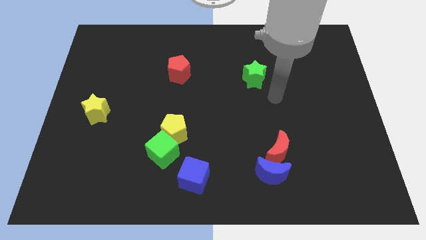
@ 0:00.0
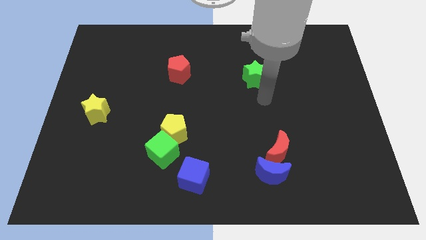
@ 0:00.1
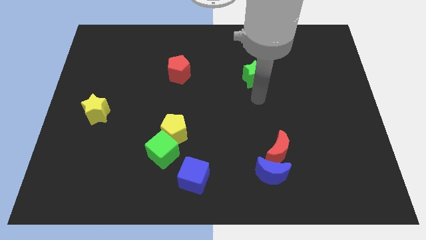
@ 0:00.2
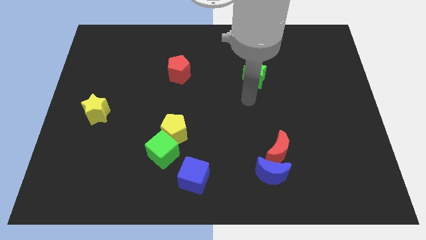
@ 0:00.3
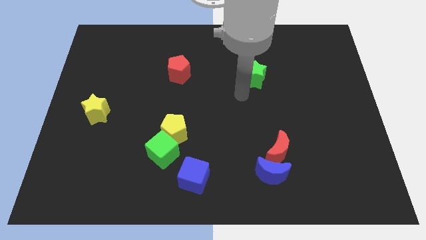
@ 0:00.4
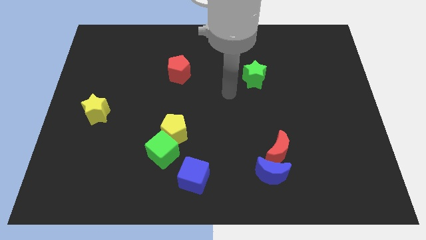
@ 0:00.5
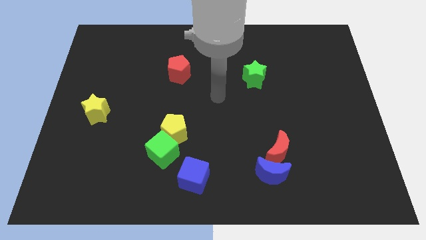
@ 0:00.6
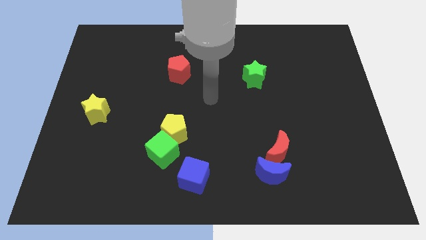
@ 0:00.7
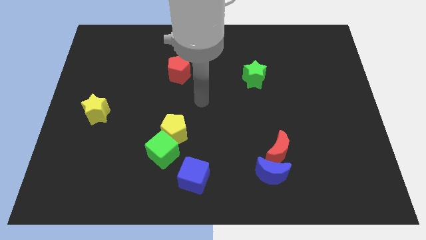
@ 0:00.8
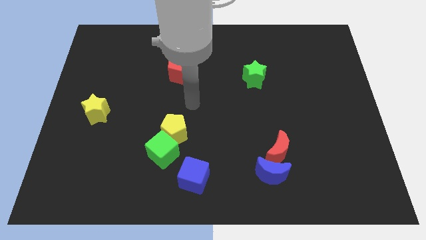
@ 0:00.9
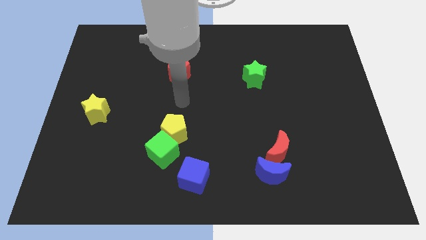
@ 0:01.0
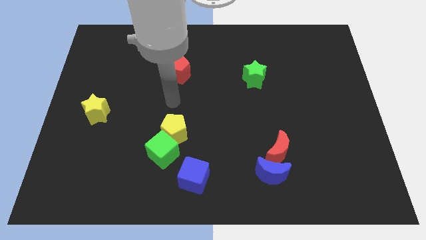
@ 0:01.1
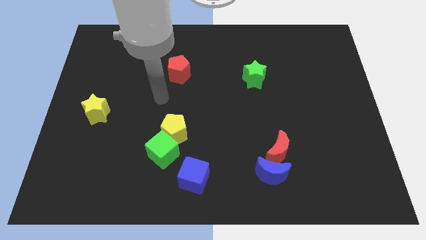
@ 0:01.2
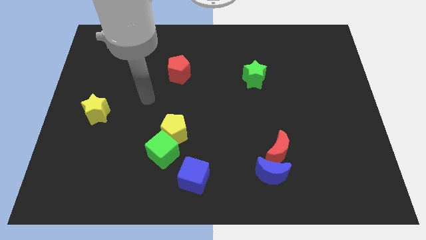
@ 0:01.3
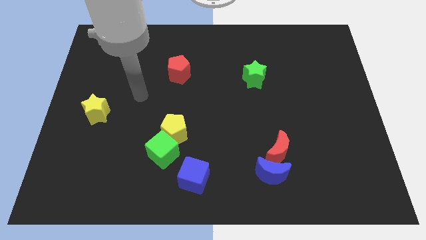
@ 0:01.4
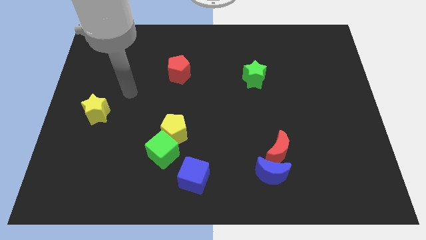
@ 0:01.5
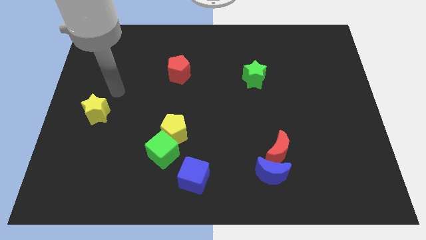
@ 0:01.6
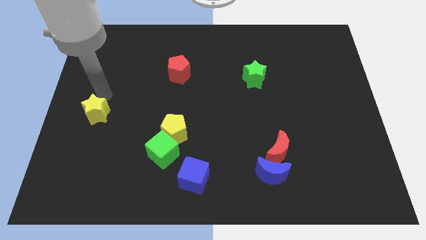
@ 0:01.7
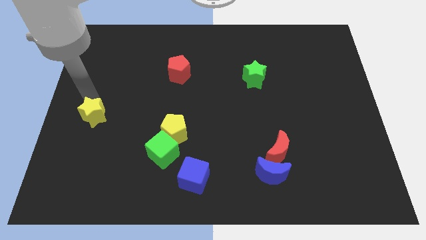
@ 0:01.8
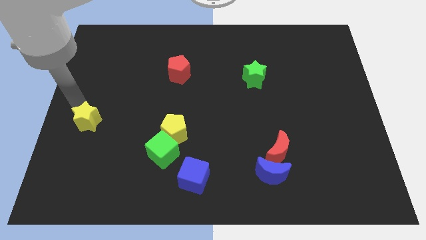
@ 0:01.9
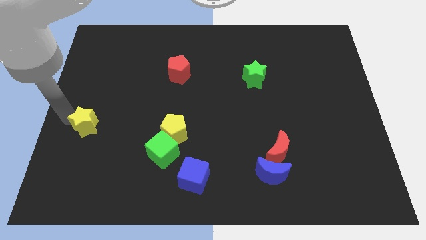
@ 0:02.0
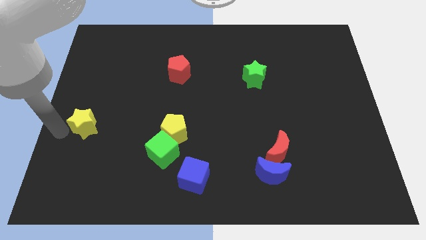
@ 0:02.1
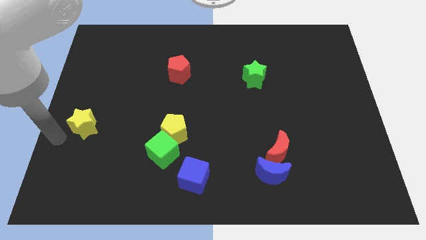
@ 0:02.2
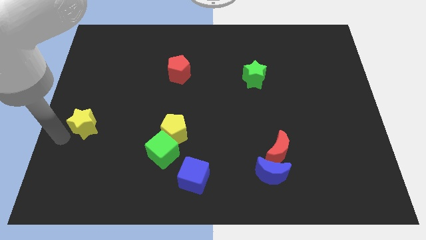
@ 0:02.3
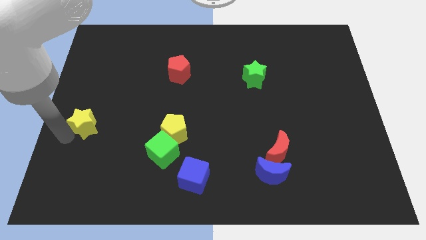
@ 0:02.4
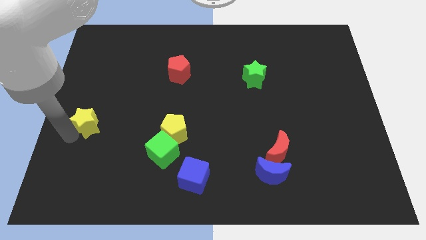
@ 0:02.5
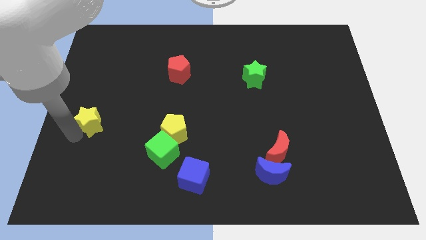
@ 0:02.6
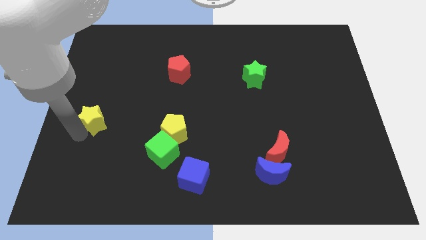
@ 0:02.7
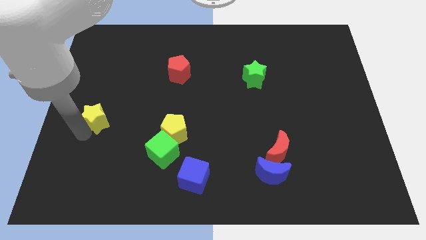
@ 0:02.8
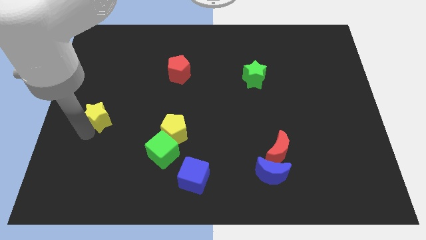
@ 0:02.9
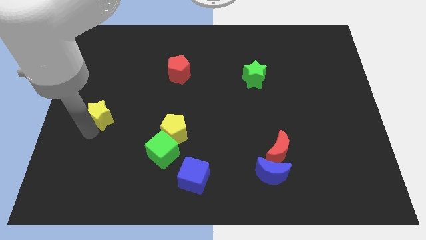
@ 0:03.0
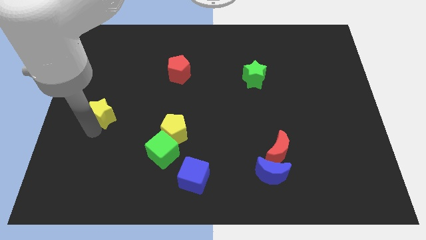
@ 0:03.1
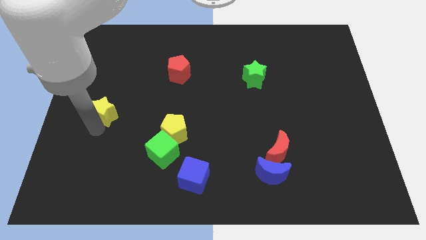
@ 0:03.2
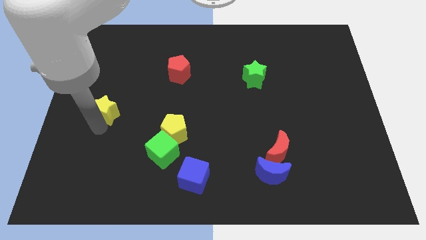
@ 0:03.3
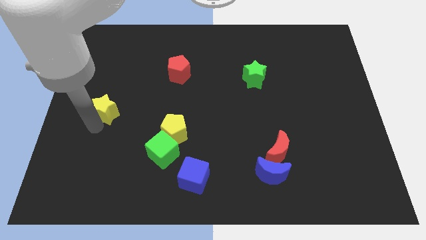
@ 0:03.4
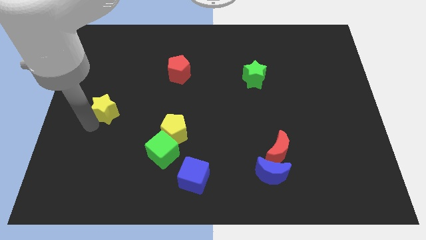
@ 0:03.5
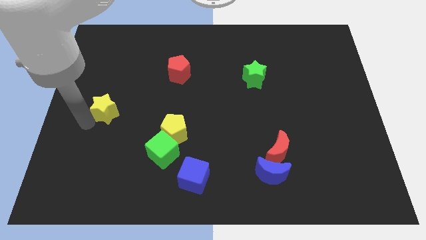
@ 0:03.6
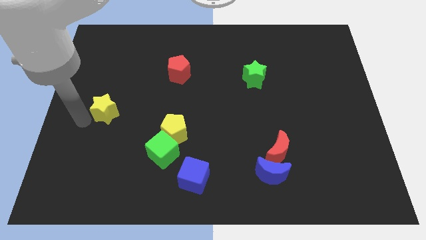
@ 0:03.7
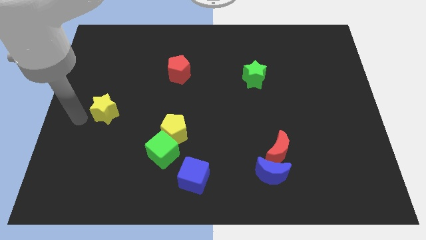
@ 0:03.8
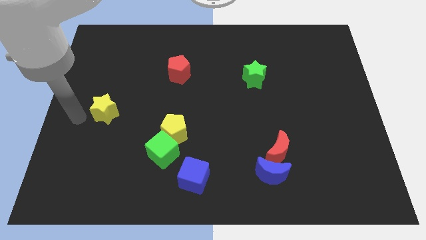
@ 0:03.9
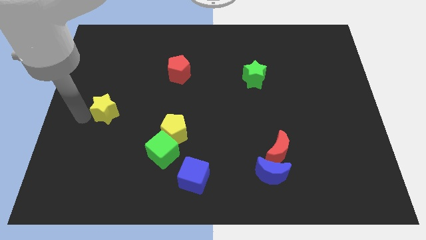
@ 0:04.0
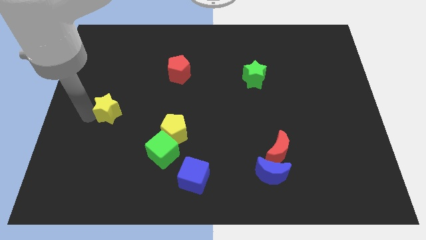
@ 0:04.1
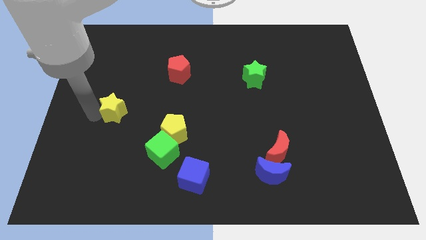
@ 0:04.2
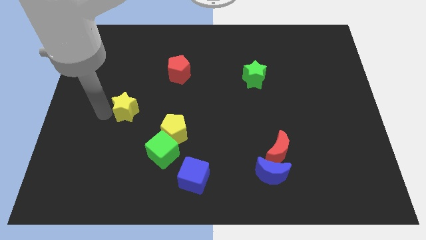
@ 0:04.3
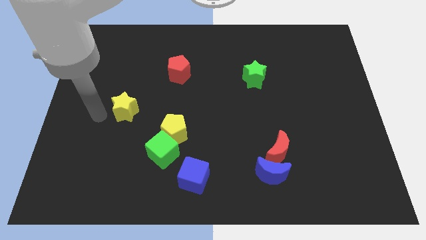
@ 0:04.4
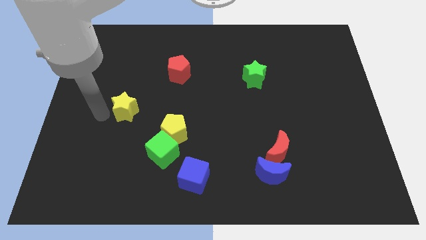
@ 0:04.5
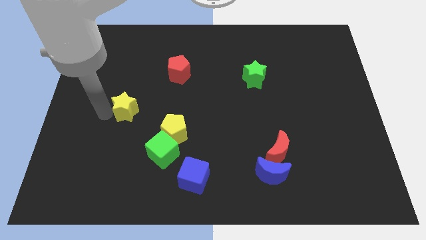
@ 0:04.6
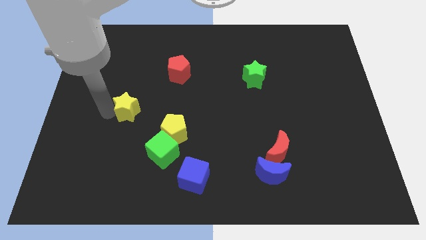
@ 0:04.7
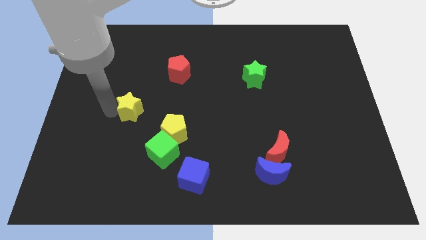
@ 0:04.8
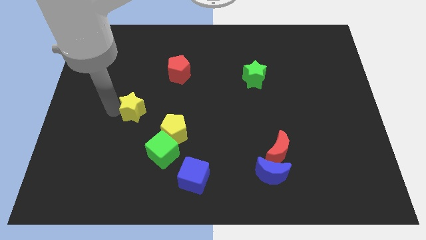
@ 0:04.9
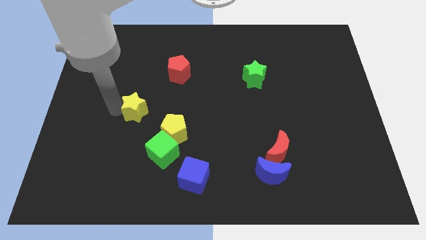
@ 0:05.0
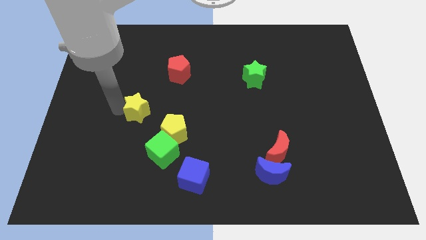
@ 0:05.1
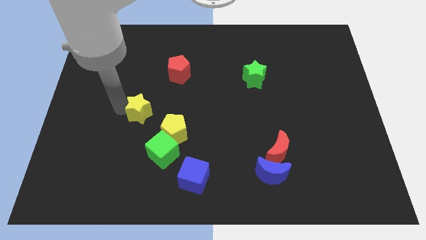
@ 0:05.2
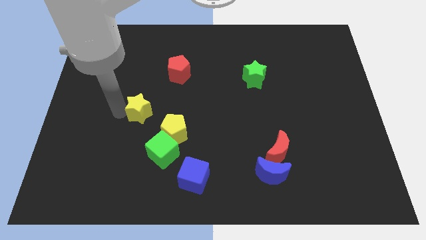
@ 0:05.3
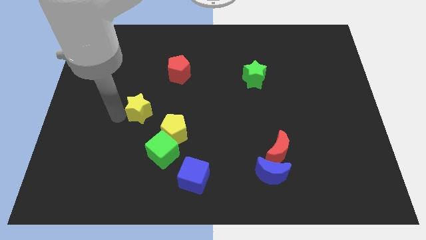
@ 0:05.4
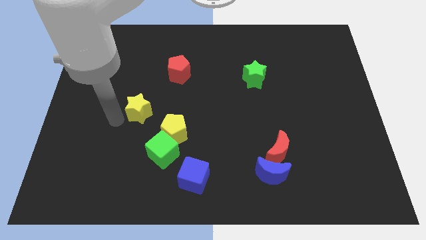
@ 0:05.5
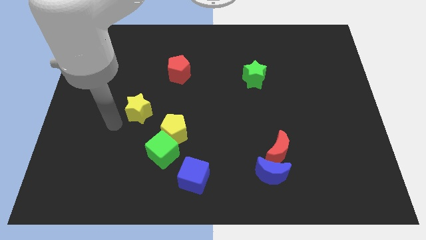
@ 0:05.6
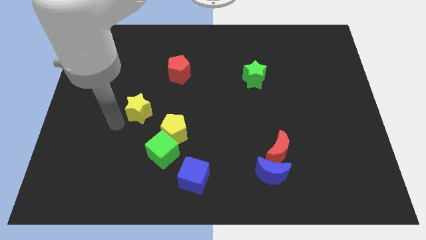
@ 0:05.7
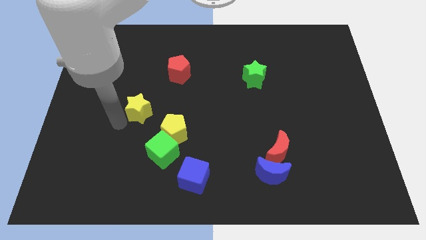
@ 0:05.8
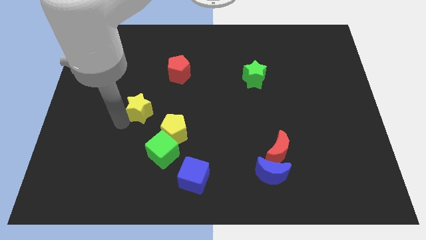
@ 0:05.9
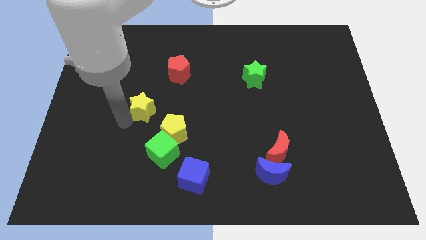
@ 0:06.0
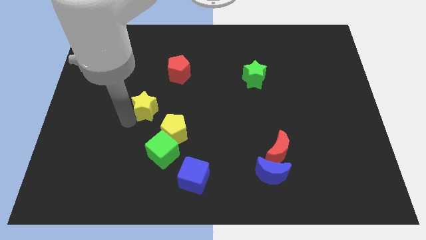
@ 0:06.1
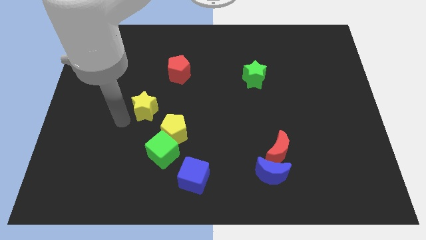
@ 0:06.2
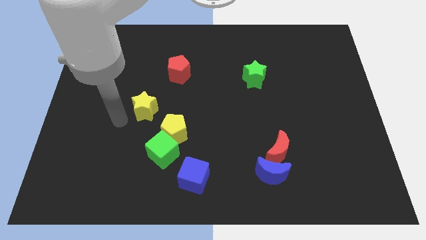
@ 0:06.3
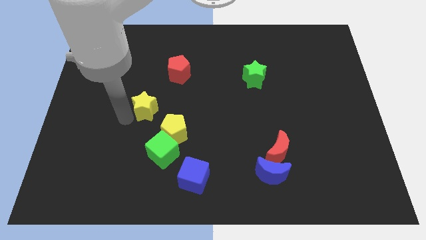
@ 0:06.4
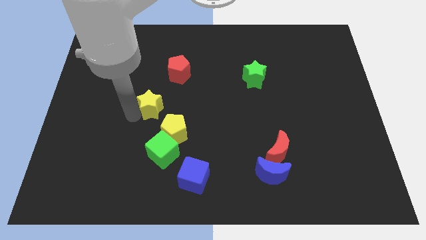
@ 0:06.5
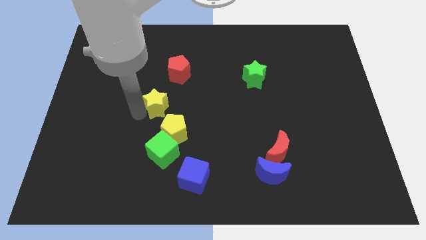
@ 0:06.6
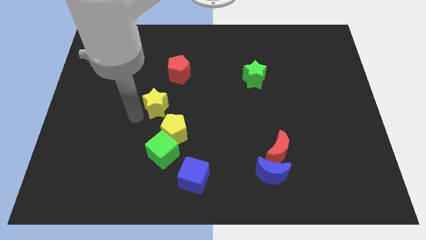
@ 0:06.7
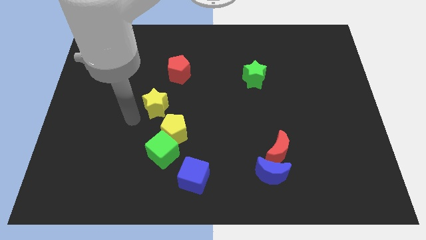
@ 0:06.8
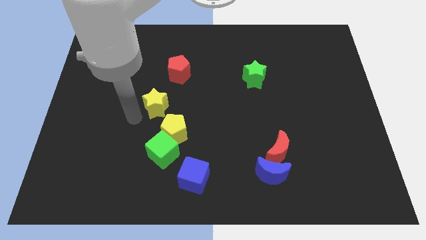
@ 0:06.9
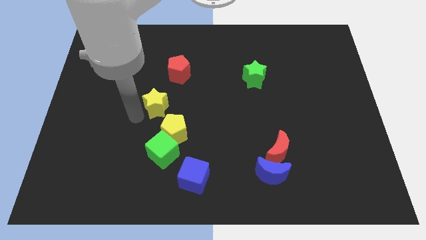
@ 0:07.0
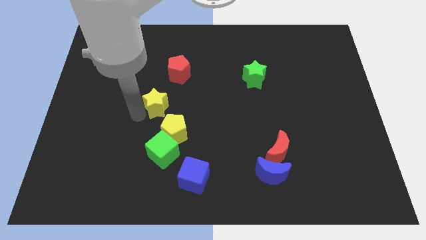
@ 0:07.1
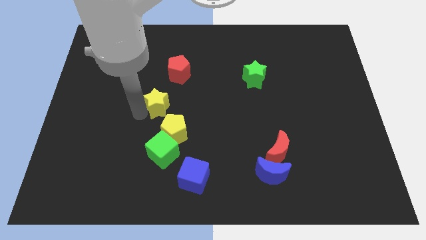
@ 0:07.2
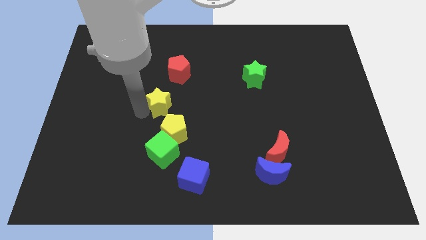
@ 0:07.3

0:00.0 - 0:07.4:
put the yellow star to the center of the board

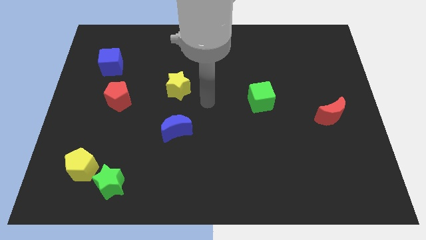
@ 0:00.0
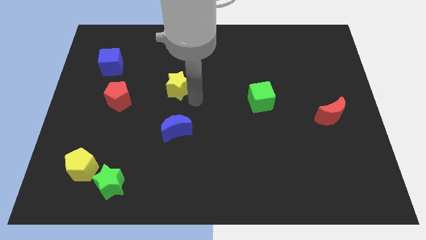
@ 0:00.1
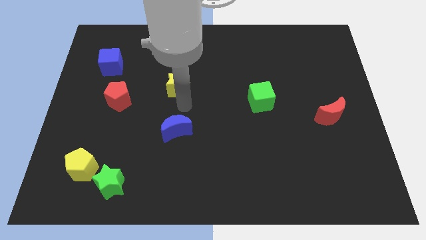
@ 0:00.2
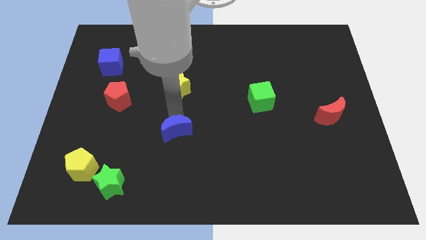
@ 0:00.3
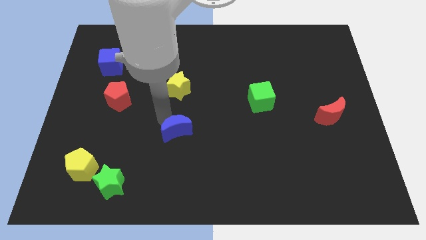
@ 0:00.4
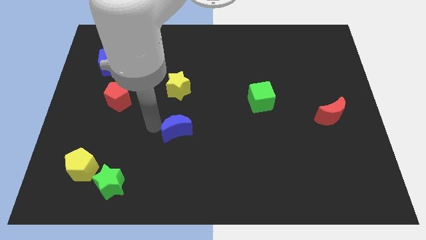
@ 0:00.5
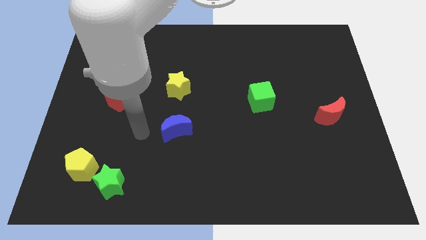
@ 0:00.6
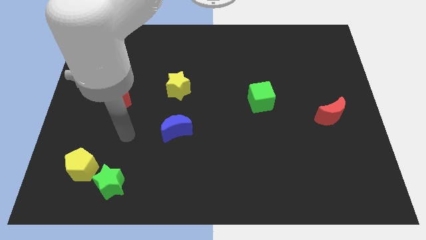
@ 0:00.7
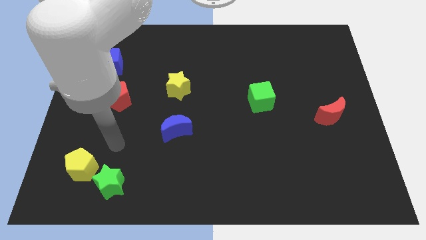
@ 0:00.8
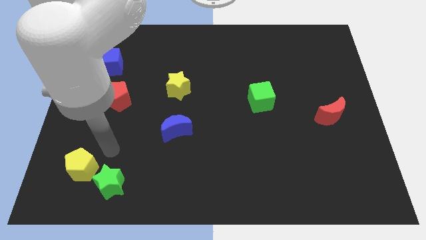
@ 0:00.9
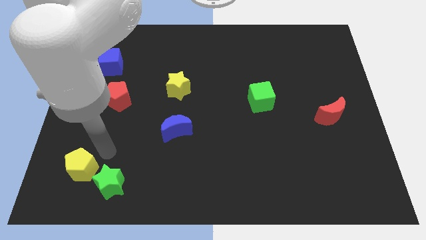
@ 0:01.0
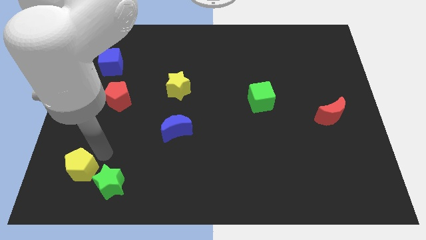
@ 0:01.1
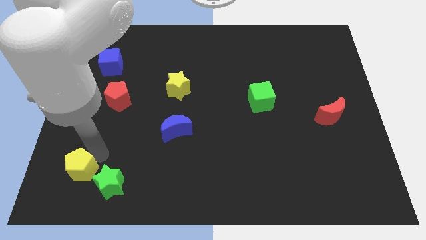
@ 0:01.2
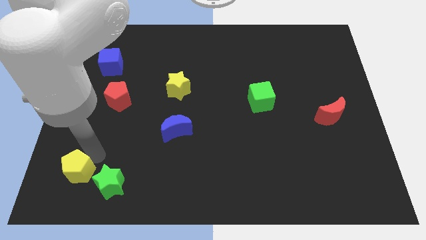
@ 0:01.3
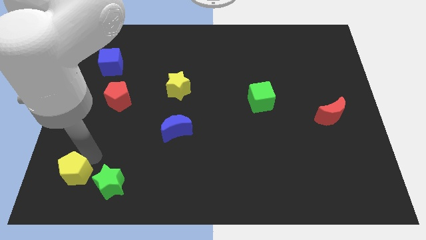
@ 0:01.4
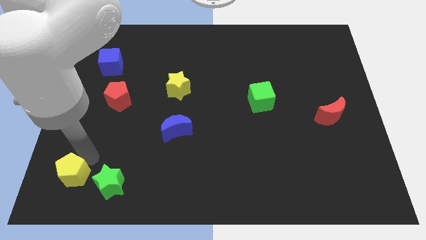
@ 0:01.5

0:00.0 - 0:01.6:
push the yellow pentagon to the lower left corner
